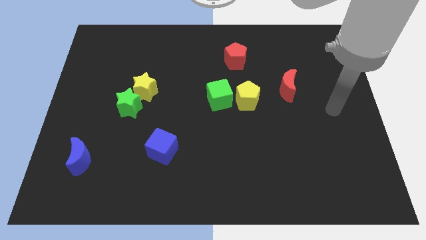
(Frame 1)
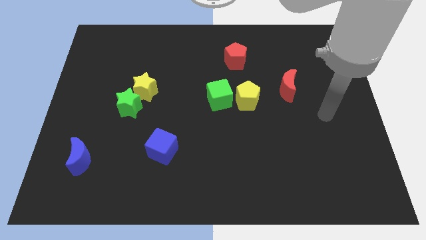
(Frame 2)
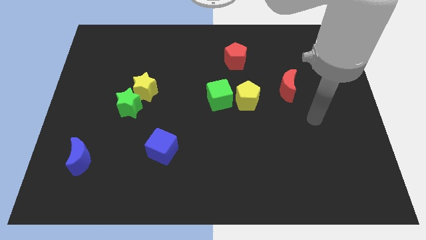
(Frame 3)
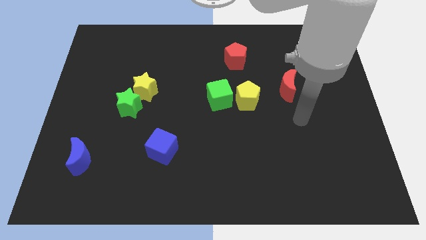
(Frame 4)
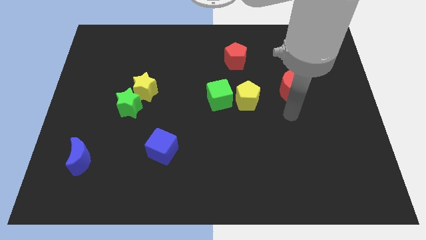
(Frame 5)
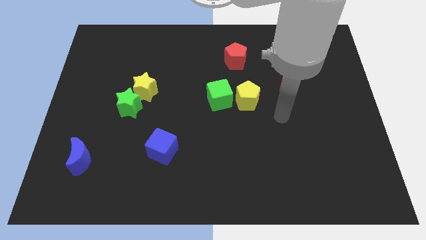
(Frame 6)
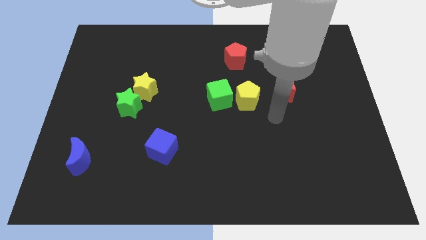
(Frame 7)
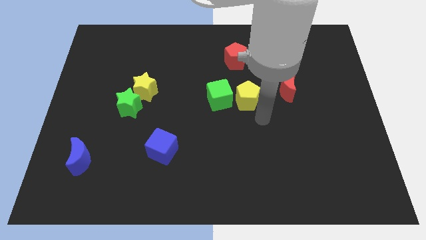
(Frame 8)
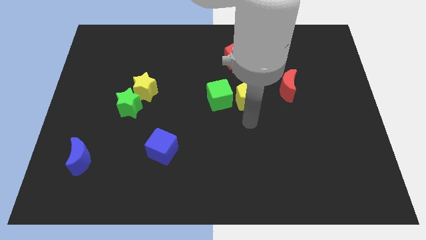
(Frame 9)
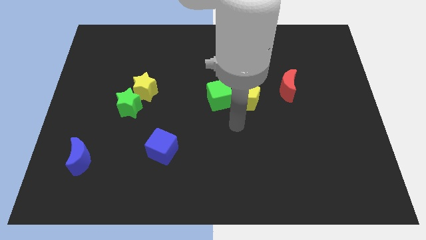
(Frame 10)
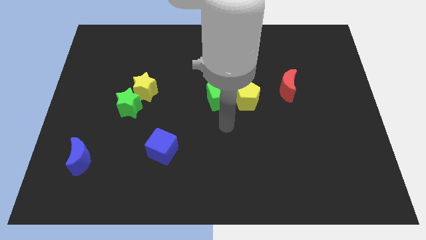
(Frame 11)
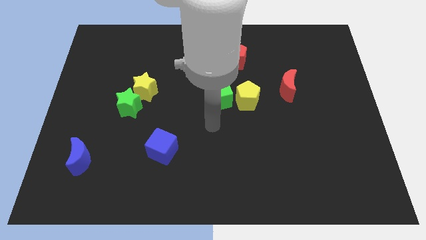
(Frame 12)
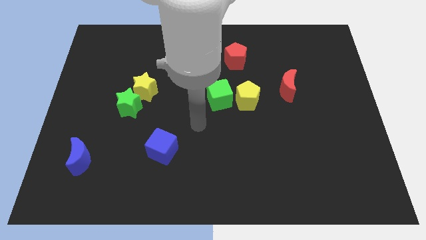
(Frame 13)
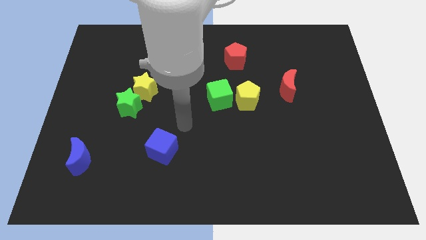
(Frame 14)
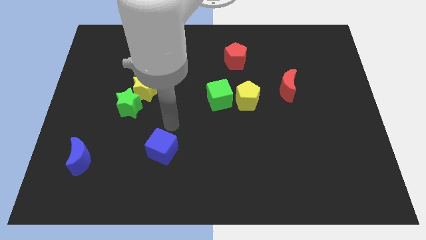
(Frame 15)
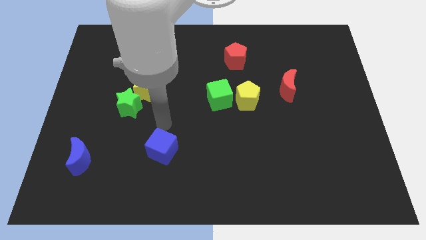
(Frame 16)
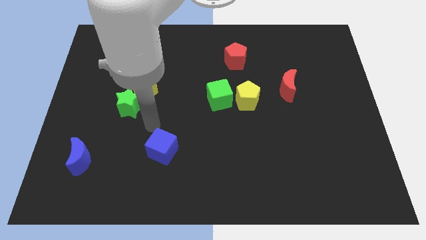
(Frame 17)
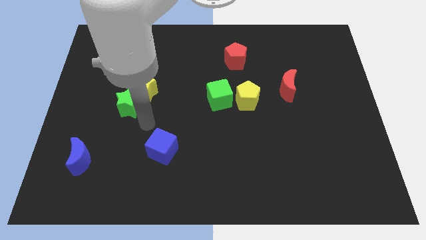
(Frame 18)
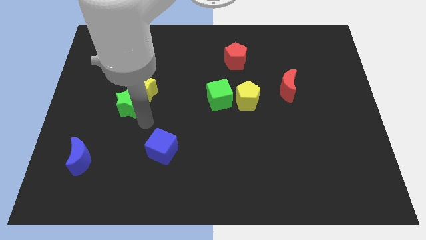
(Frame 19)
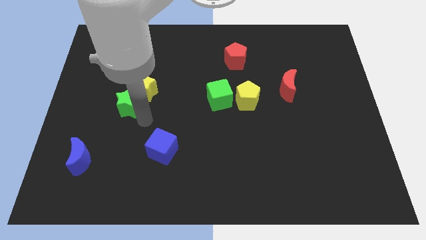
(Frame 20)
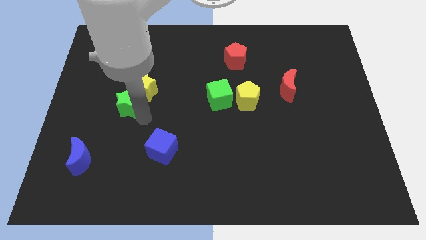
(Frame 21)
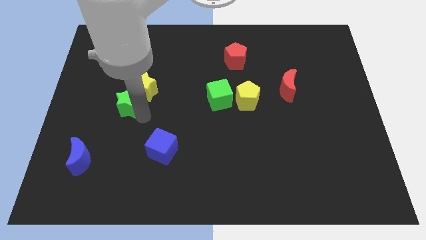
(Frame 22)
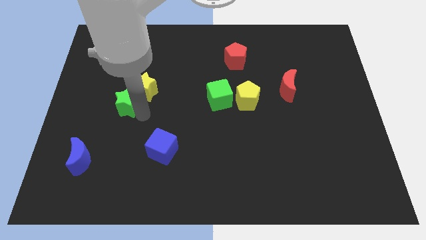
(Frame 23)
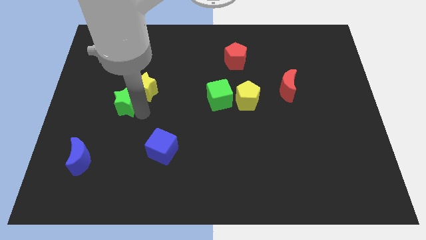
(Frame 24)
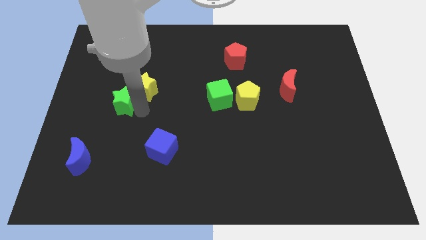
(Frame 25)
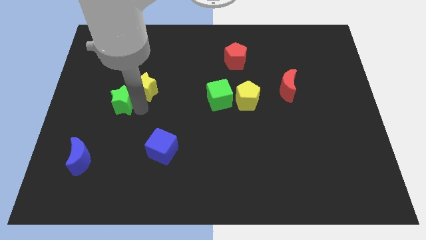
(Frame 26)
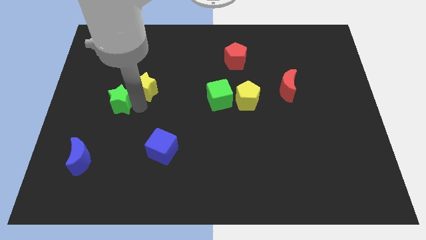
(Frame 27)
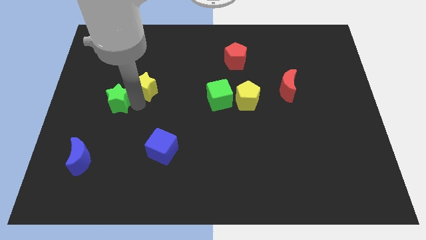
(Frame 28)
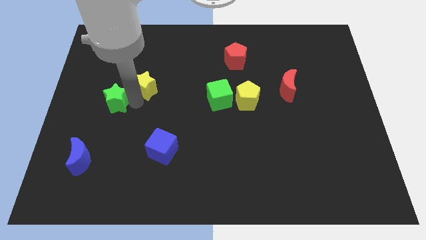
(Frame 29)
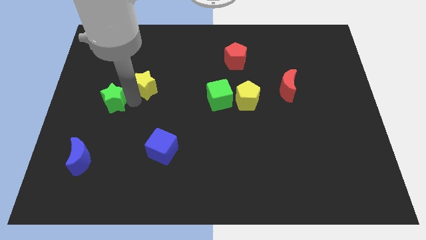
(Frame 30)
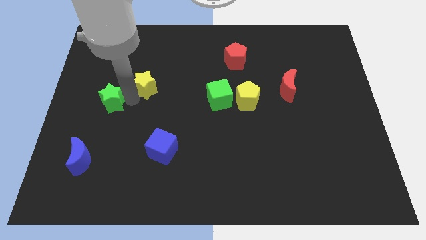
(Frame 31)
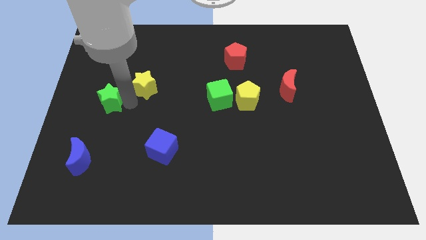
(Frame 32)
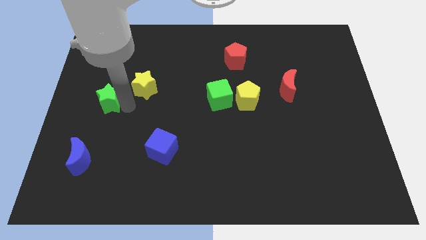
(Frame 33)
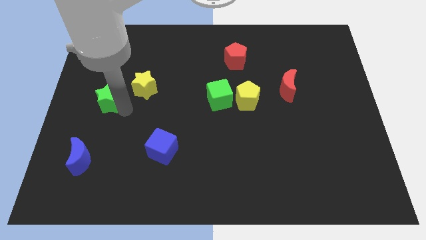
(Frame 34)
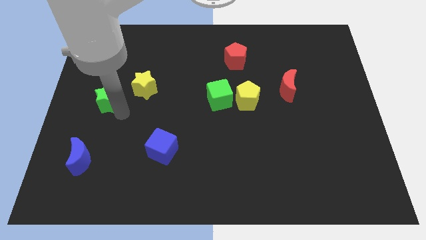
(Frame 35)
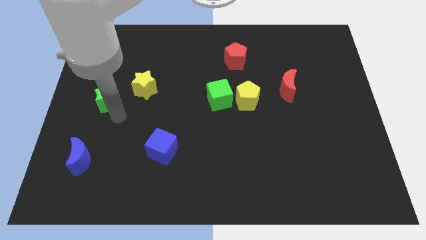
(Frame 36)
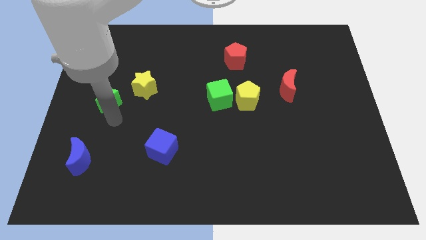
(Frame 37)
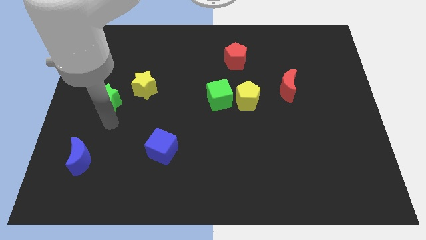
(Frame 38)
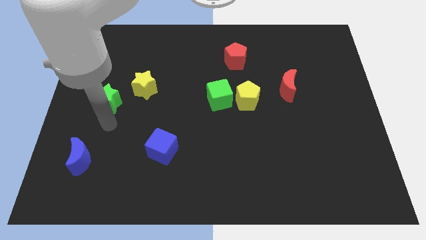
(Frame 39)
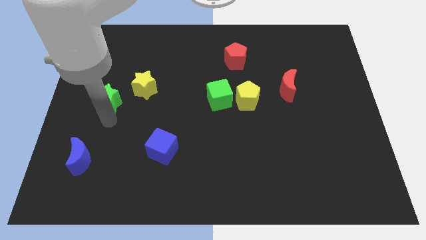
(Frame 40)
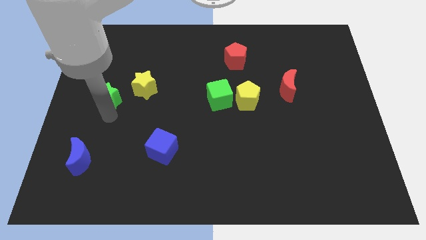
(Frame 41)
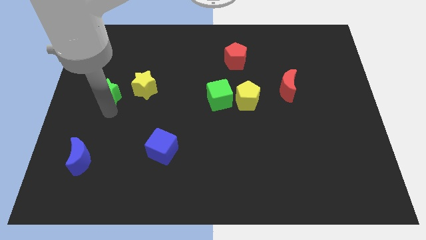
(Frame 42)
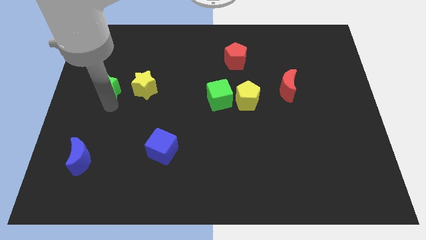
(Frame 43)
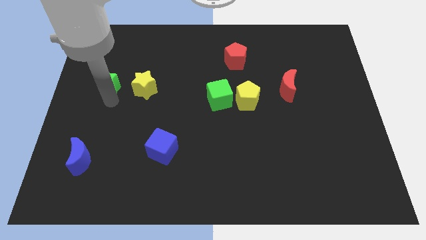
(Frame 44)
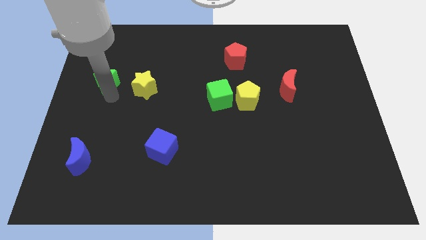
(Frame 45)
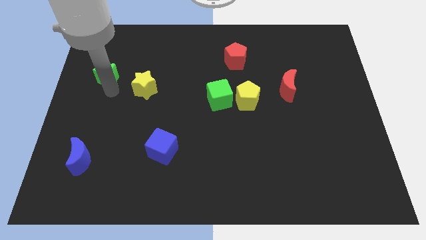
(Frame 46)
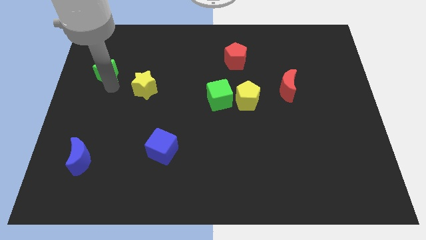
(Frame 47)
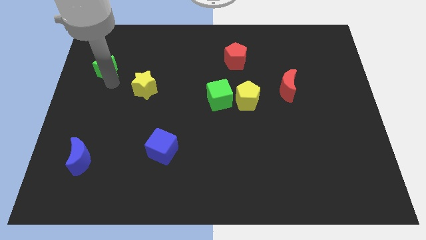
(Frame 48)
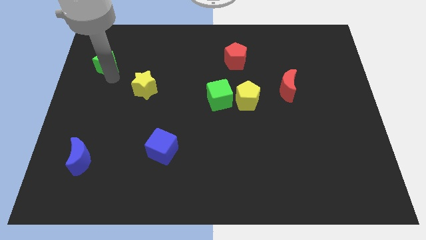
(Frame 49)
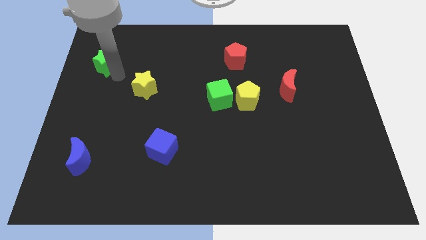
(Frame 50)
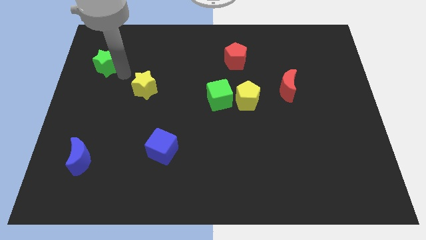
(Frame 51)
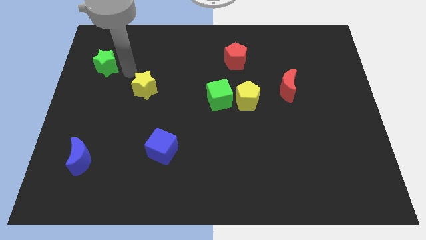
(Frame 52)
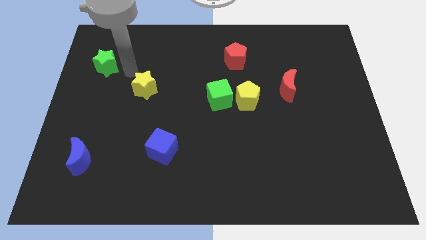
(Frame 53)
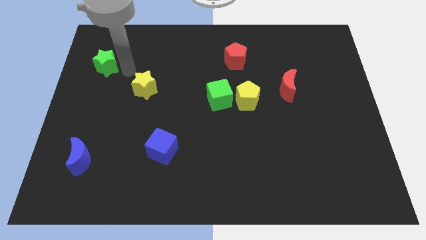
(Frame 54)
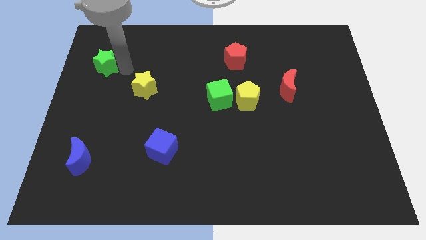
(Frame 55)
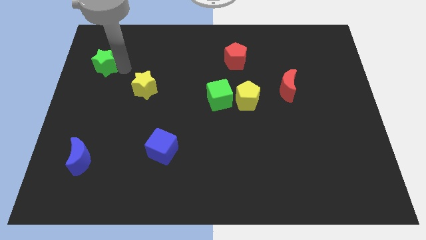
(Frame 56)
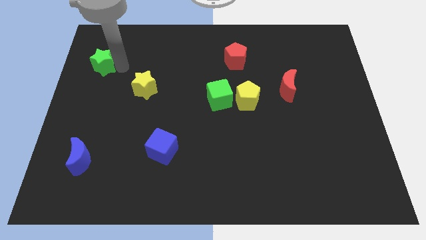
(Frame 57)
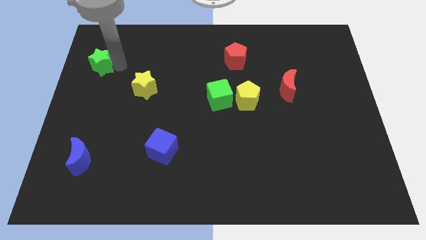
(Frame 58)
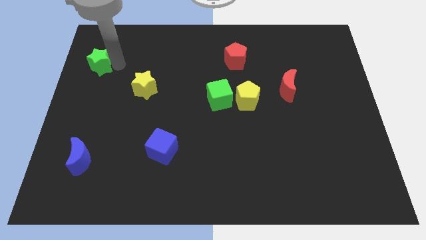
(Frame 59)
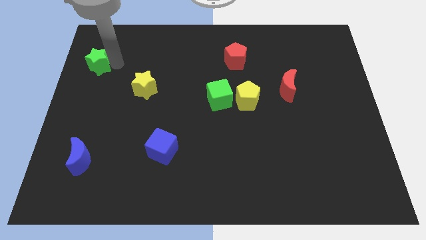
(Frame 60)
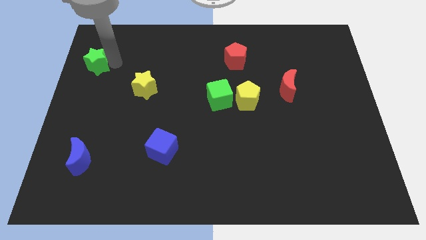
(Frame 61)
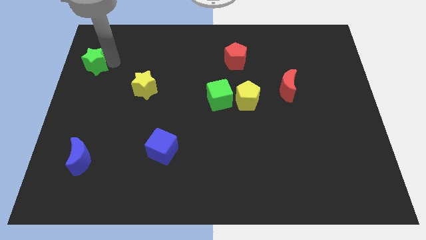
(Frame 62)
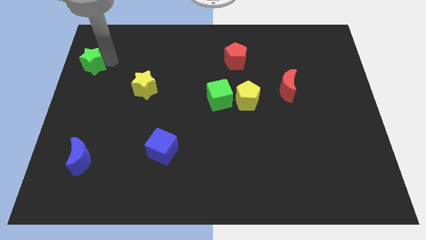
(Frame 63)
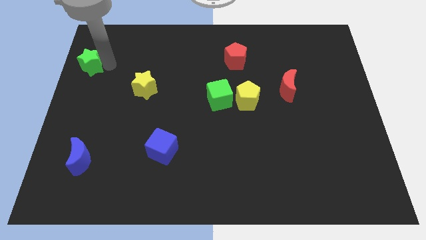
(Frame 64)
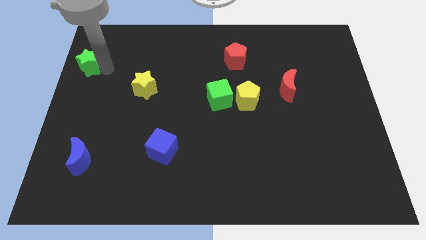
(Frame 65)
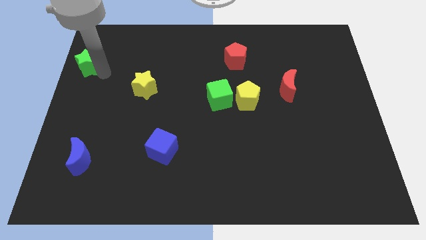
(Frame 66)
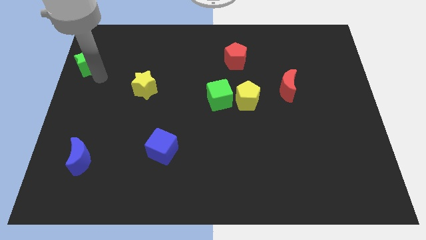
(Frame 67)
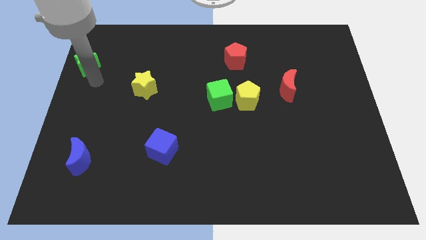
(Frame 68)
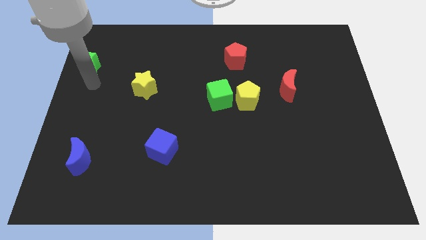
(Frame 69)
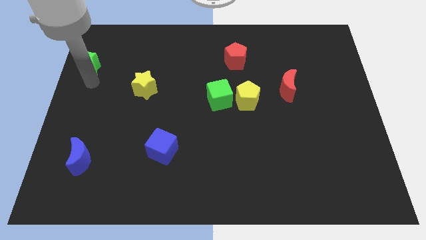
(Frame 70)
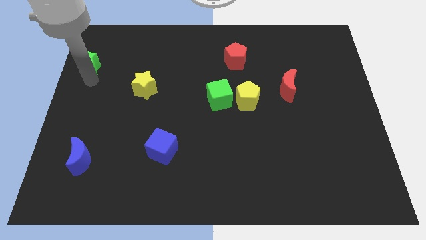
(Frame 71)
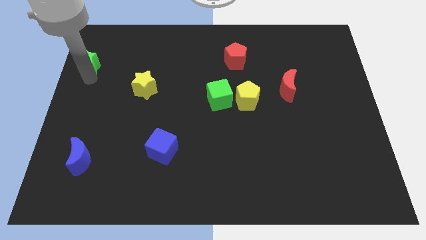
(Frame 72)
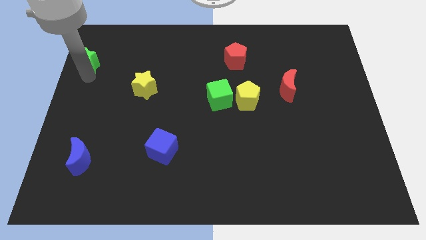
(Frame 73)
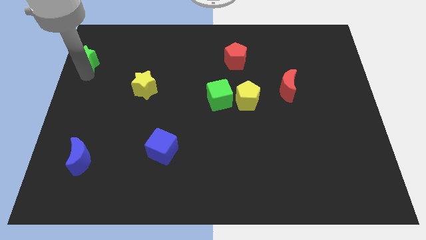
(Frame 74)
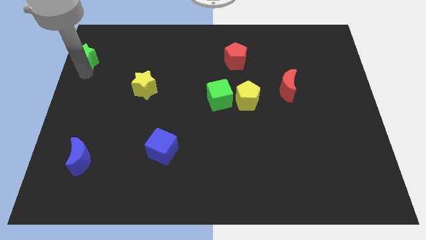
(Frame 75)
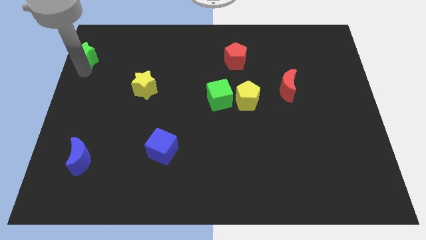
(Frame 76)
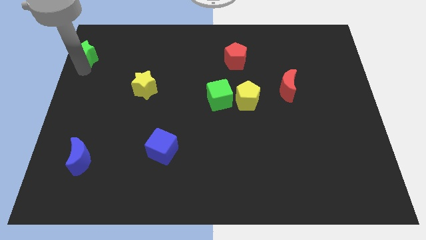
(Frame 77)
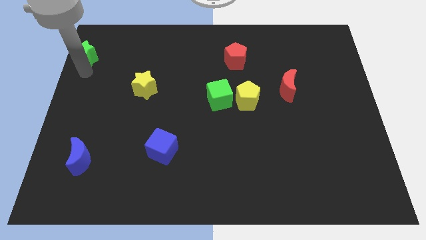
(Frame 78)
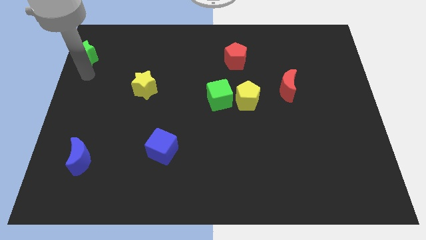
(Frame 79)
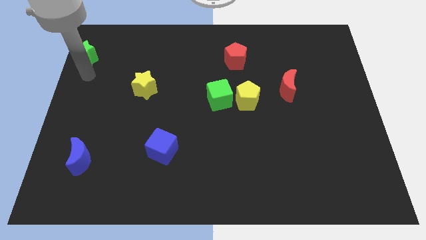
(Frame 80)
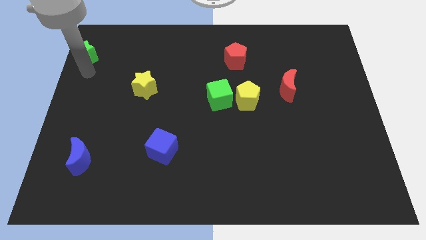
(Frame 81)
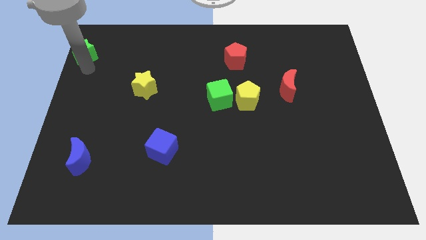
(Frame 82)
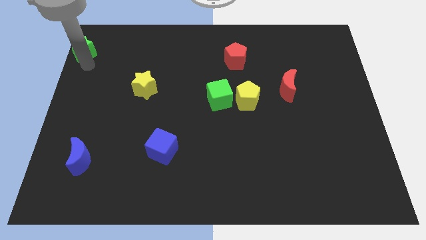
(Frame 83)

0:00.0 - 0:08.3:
push the green star to the upper left corner
